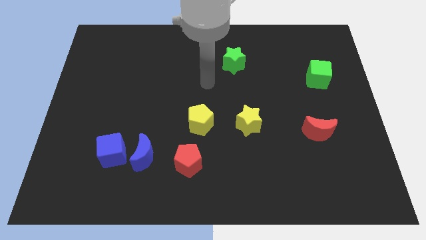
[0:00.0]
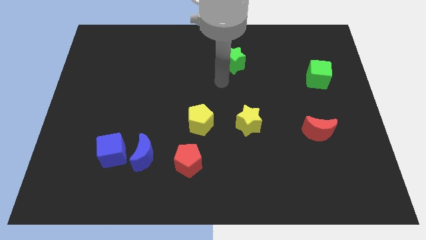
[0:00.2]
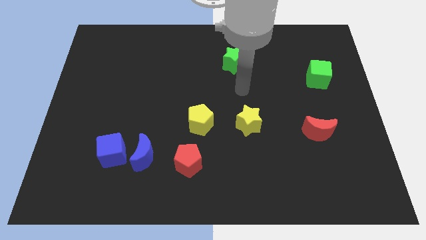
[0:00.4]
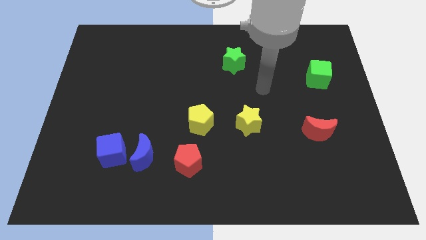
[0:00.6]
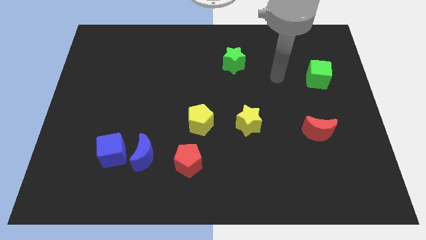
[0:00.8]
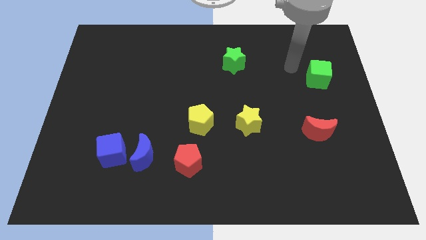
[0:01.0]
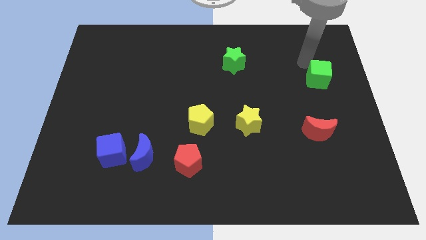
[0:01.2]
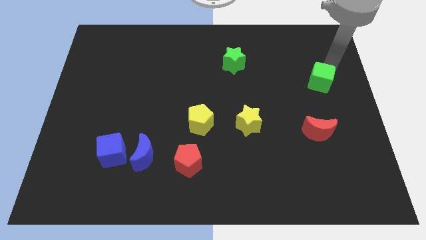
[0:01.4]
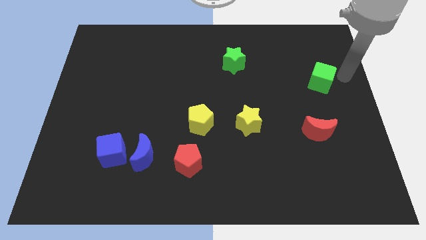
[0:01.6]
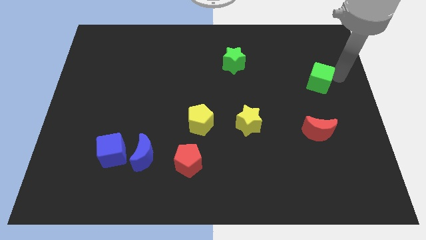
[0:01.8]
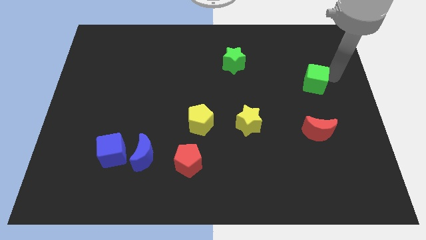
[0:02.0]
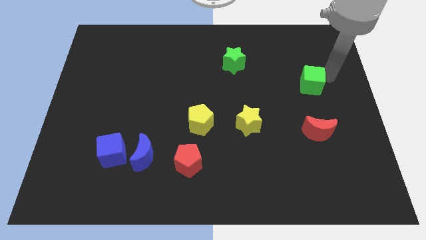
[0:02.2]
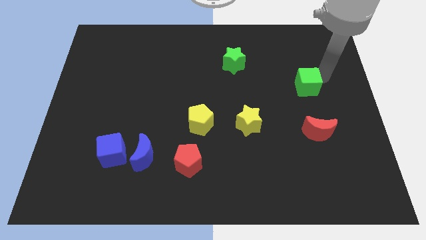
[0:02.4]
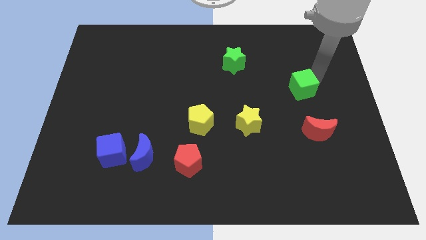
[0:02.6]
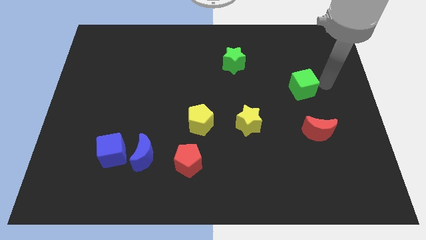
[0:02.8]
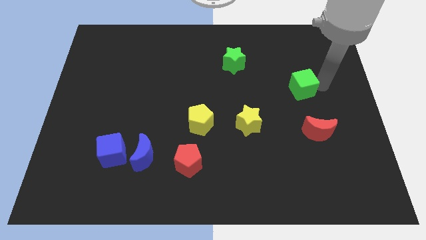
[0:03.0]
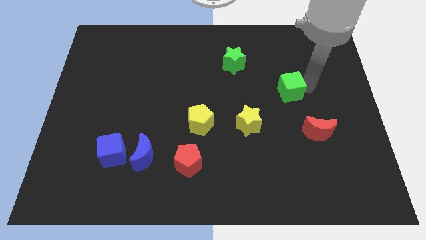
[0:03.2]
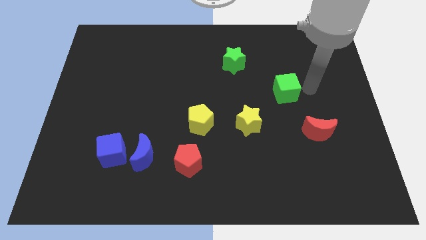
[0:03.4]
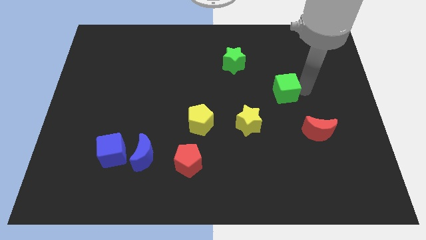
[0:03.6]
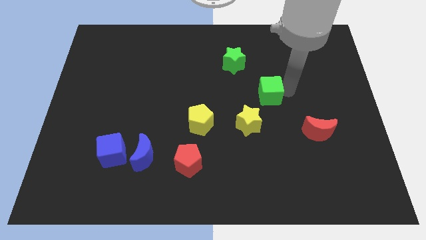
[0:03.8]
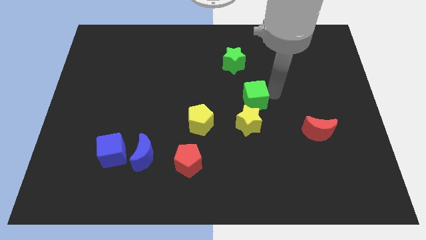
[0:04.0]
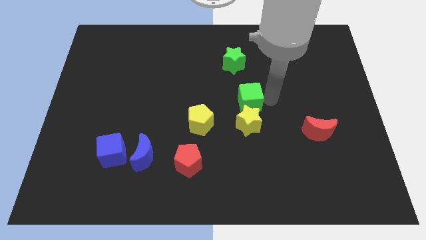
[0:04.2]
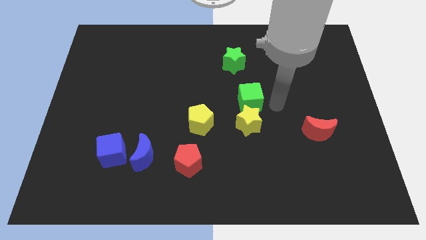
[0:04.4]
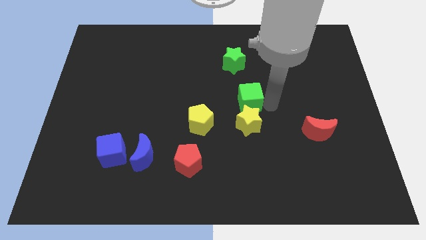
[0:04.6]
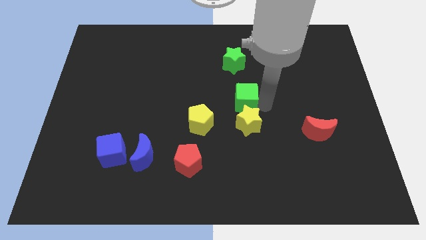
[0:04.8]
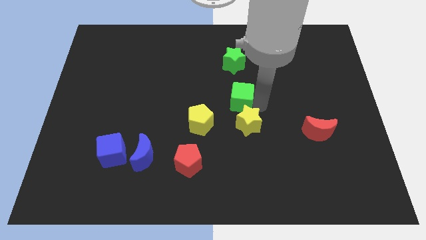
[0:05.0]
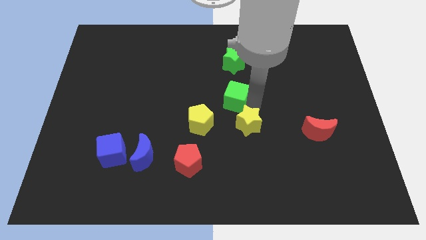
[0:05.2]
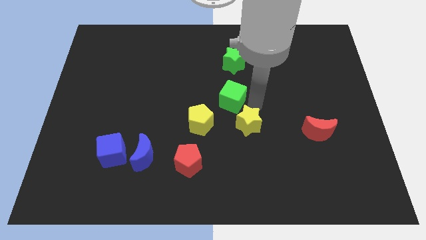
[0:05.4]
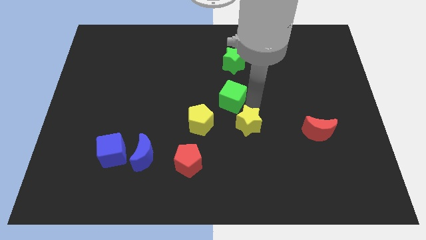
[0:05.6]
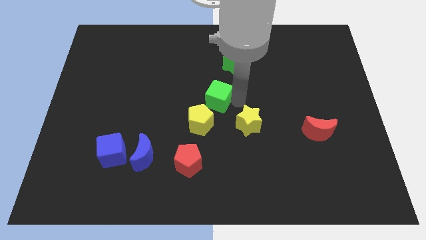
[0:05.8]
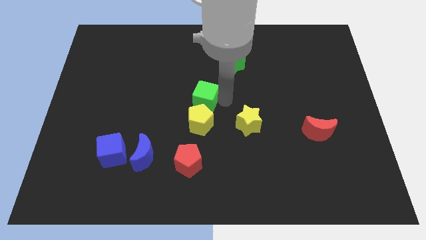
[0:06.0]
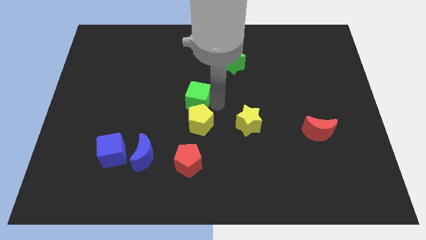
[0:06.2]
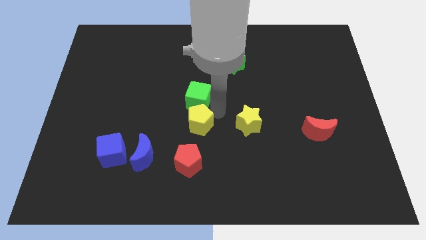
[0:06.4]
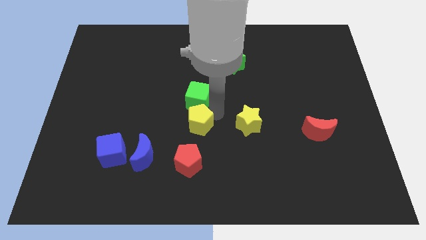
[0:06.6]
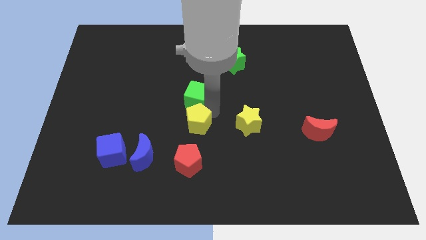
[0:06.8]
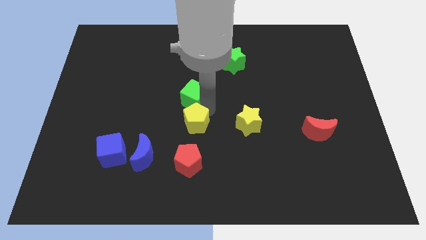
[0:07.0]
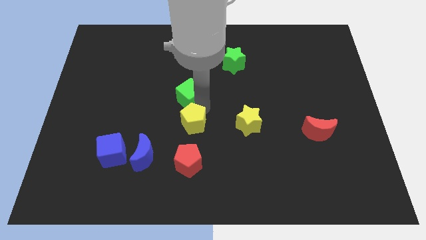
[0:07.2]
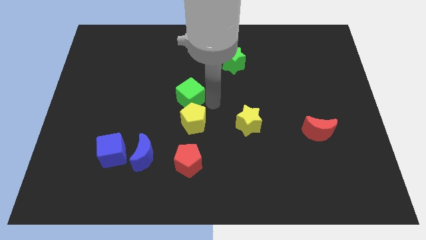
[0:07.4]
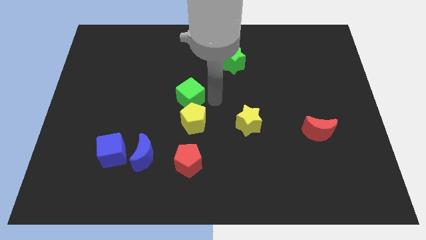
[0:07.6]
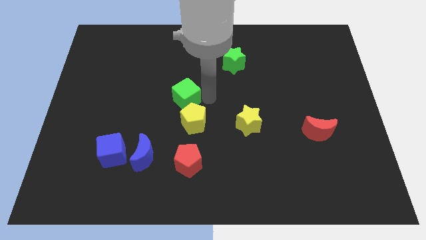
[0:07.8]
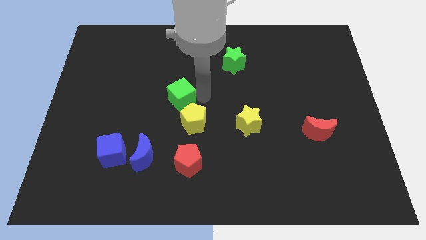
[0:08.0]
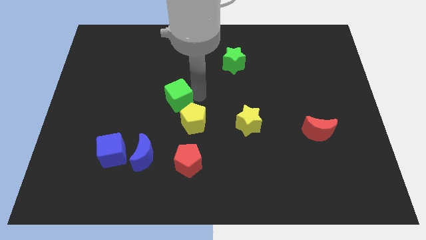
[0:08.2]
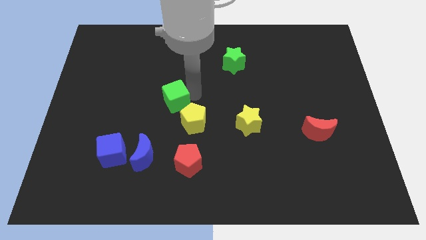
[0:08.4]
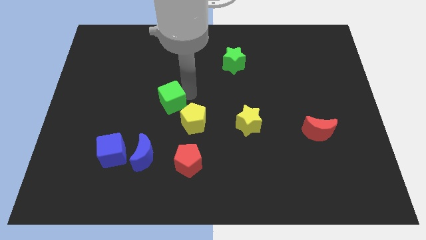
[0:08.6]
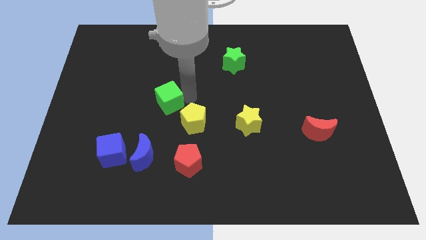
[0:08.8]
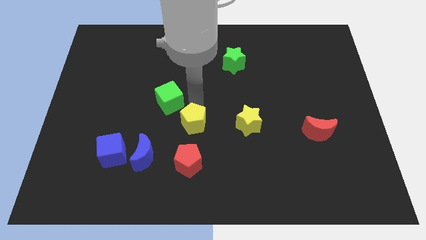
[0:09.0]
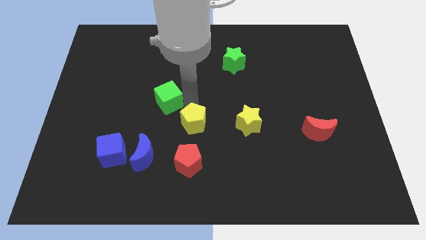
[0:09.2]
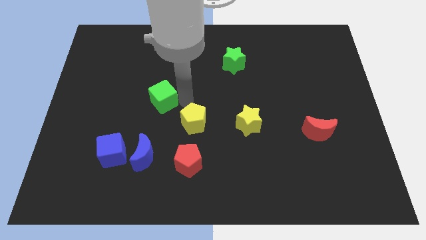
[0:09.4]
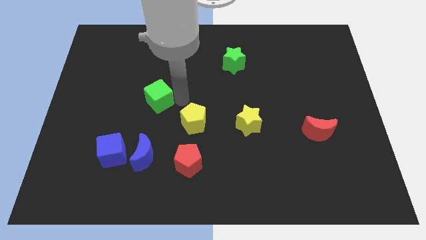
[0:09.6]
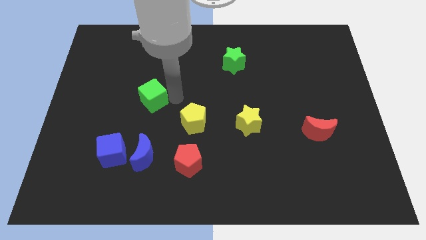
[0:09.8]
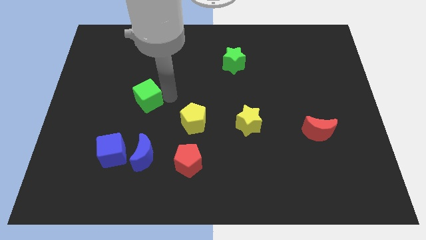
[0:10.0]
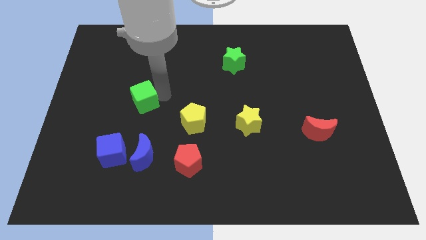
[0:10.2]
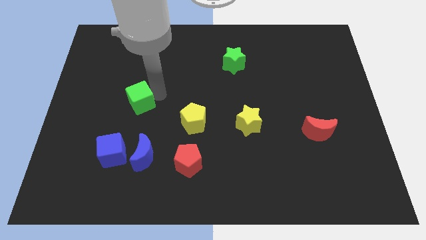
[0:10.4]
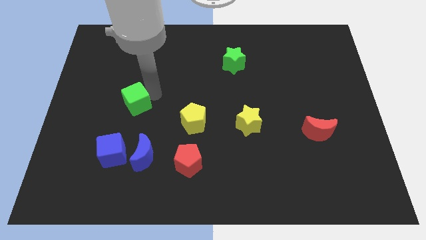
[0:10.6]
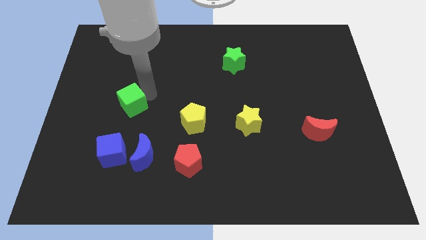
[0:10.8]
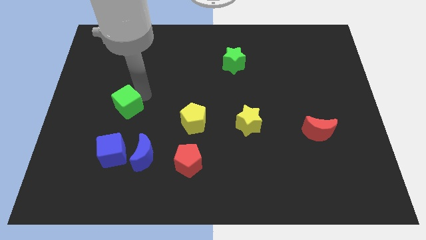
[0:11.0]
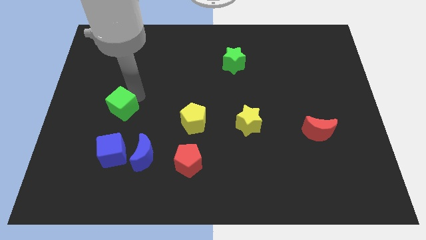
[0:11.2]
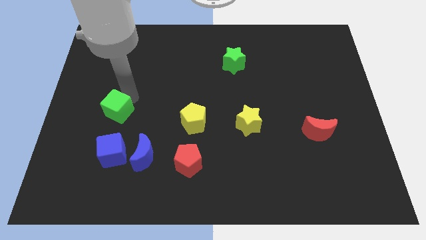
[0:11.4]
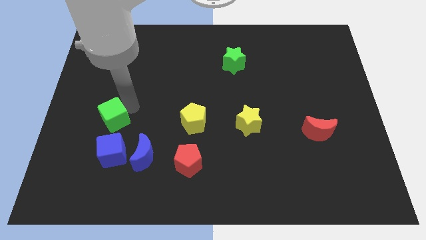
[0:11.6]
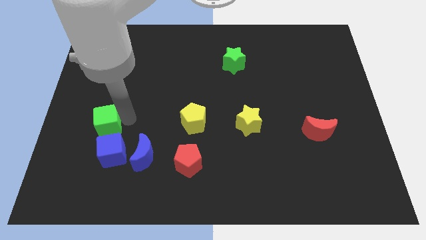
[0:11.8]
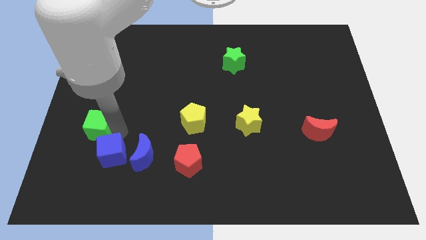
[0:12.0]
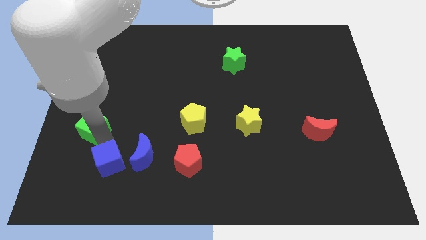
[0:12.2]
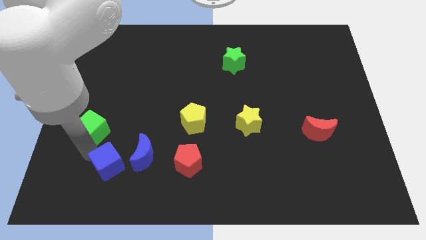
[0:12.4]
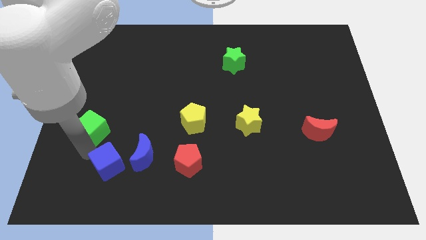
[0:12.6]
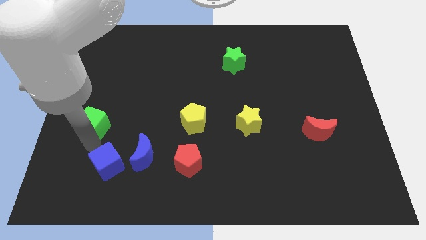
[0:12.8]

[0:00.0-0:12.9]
push the green cube to the center left
